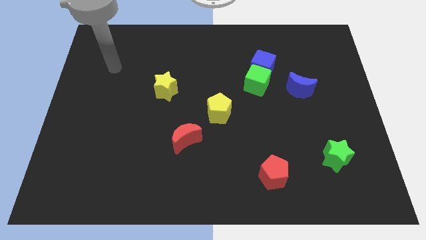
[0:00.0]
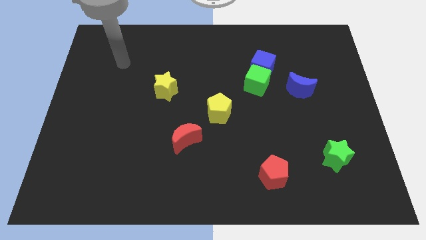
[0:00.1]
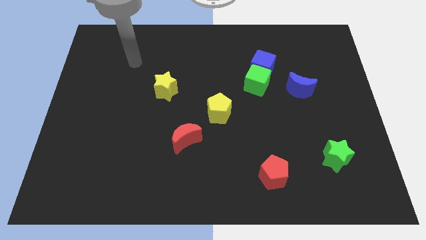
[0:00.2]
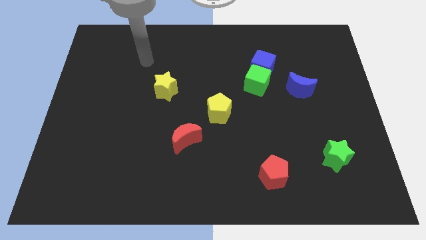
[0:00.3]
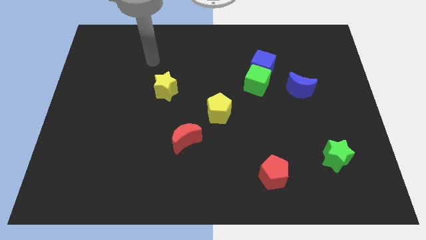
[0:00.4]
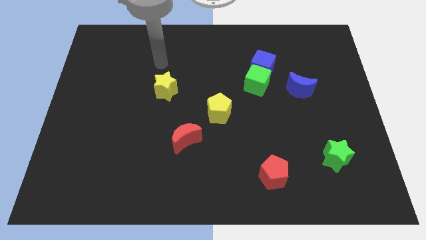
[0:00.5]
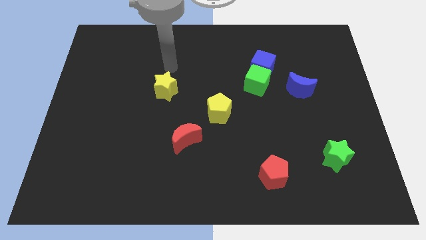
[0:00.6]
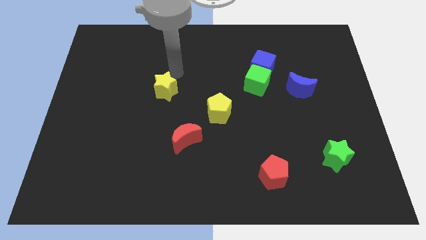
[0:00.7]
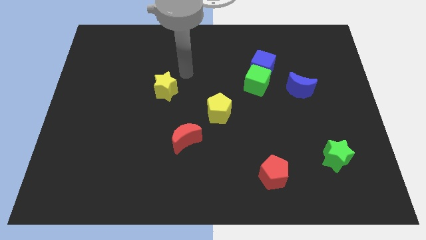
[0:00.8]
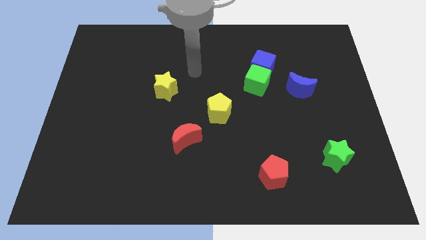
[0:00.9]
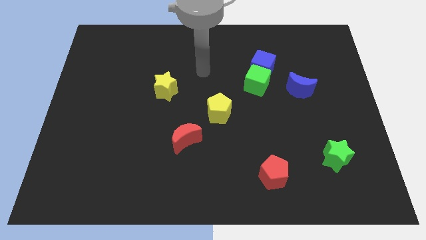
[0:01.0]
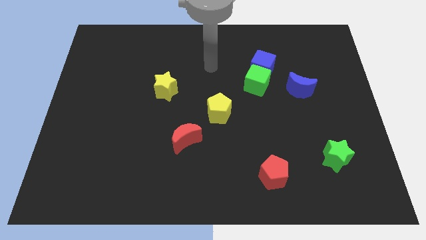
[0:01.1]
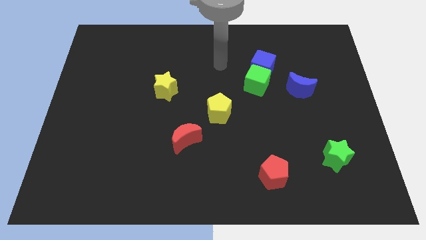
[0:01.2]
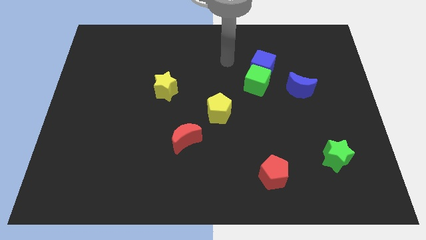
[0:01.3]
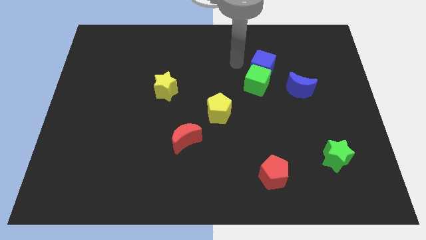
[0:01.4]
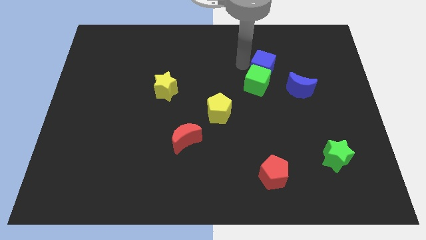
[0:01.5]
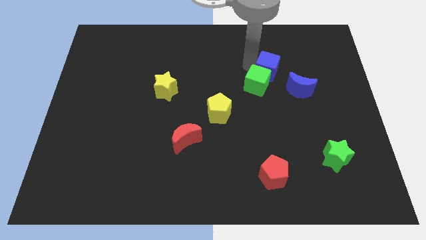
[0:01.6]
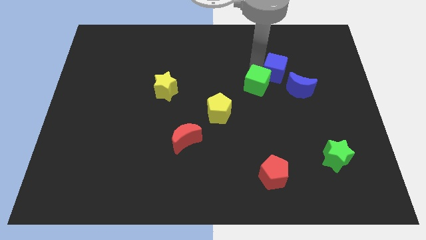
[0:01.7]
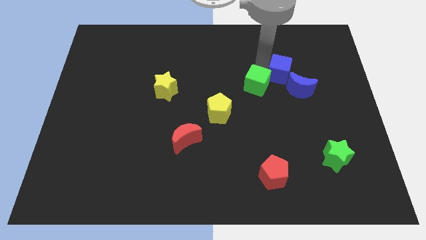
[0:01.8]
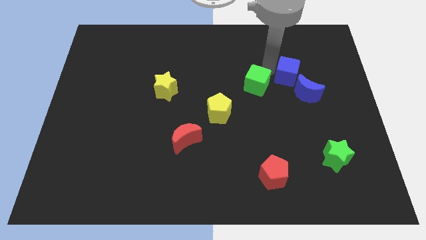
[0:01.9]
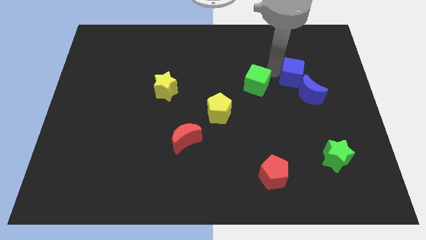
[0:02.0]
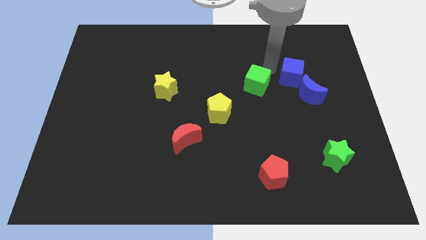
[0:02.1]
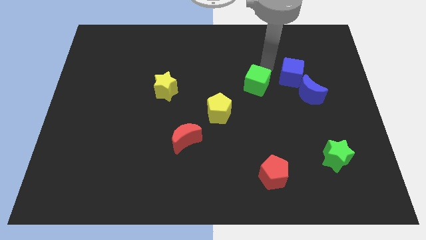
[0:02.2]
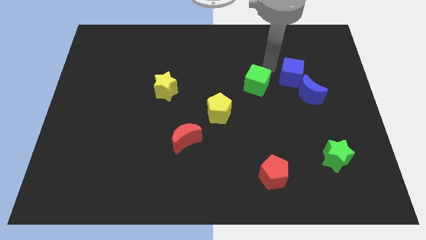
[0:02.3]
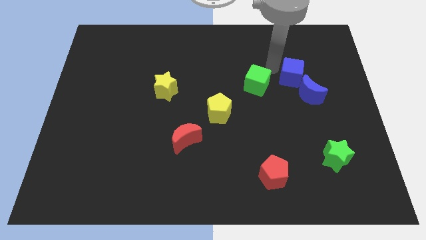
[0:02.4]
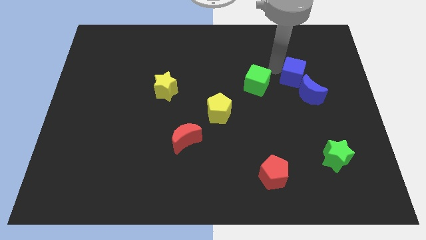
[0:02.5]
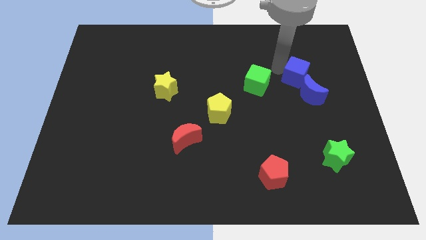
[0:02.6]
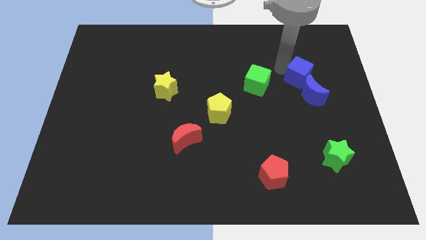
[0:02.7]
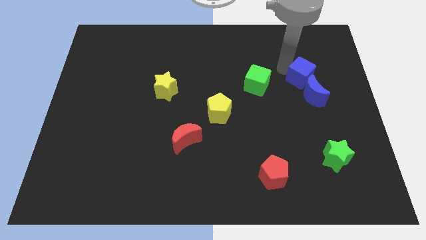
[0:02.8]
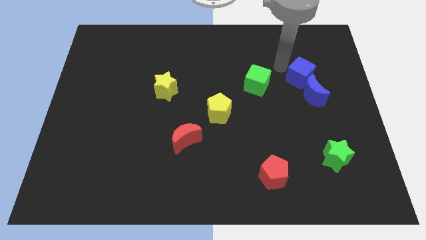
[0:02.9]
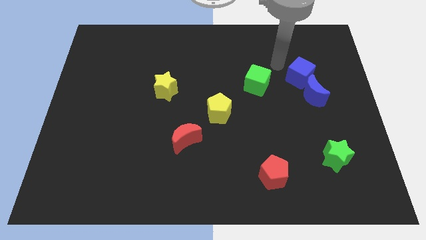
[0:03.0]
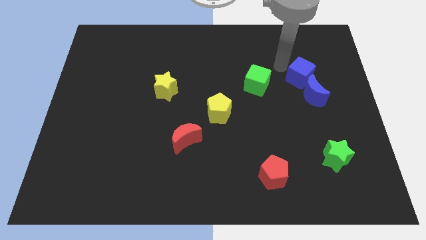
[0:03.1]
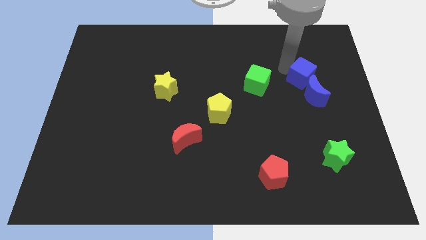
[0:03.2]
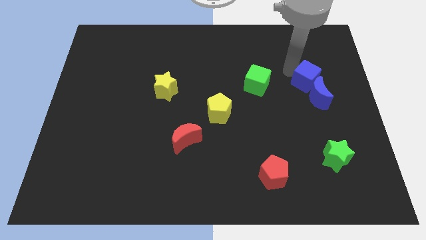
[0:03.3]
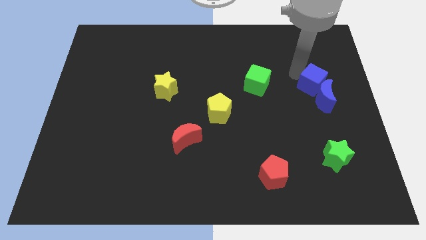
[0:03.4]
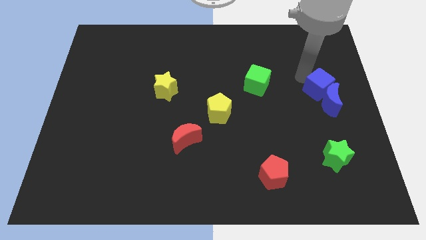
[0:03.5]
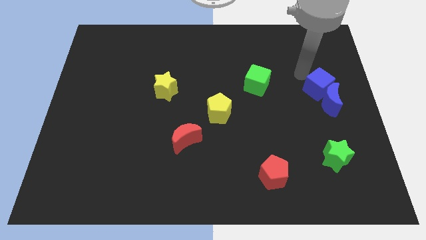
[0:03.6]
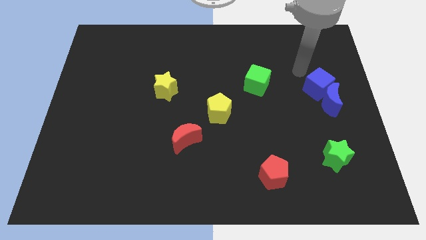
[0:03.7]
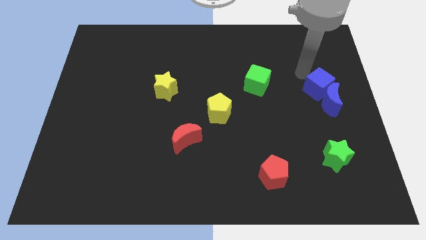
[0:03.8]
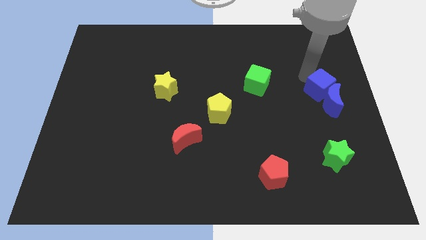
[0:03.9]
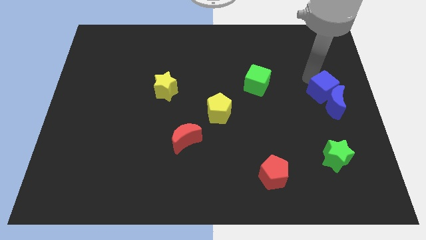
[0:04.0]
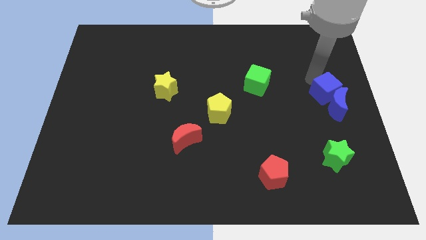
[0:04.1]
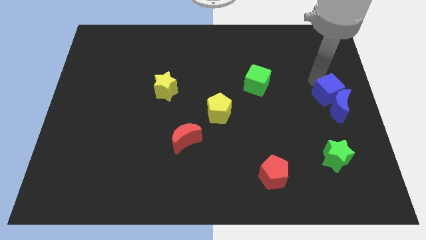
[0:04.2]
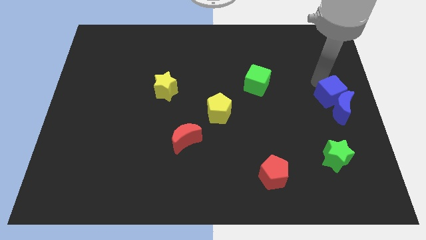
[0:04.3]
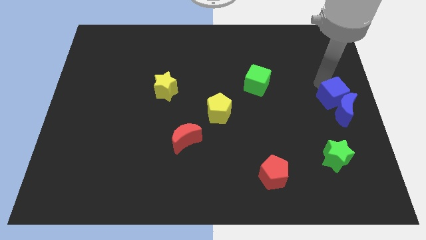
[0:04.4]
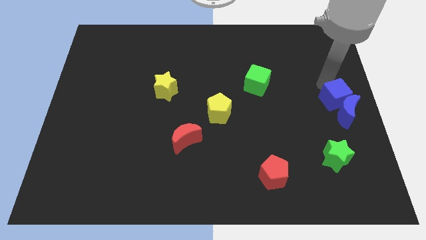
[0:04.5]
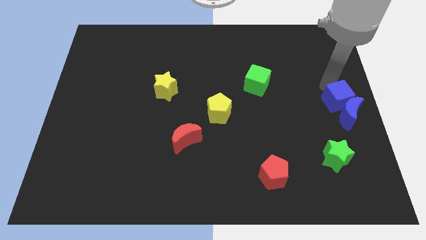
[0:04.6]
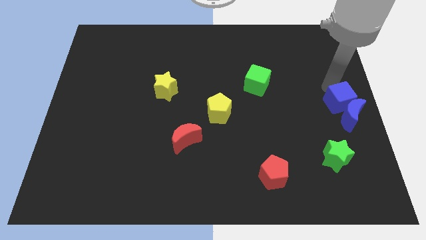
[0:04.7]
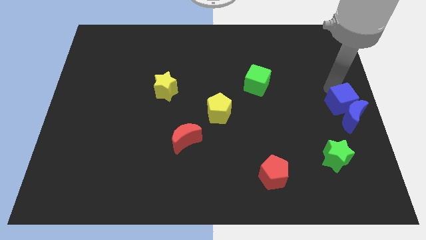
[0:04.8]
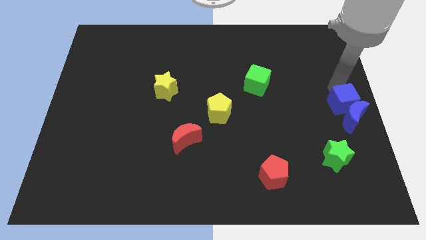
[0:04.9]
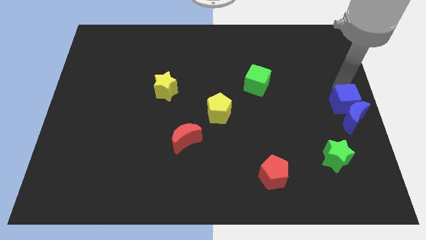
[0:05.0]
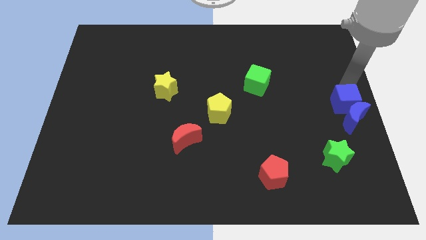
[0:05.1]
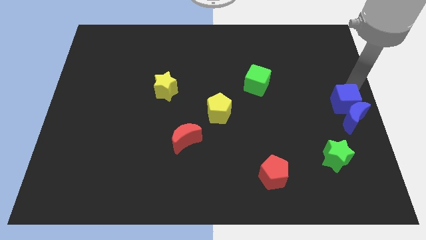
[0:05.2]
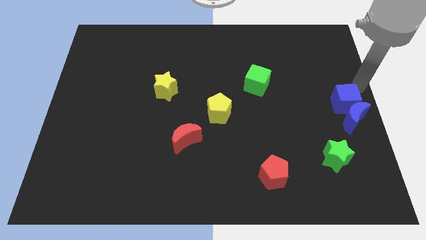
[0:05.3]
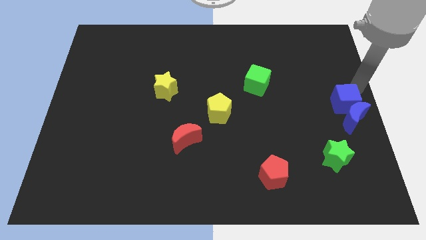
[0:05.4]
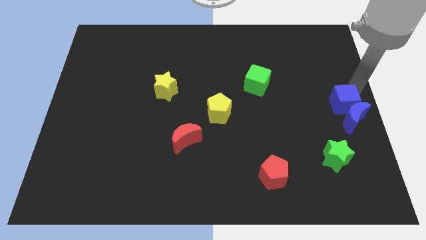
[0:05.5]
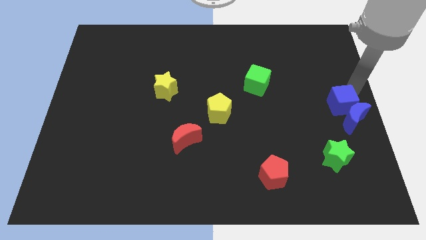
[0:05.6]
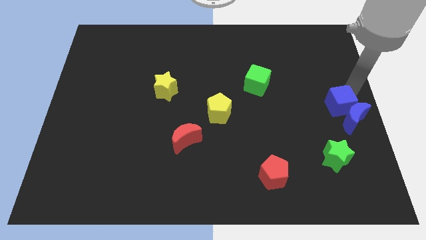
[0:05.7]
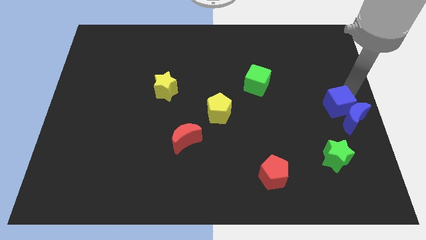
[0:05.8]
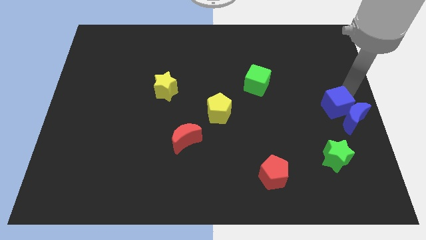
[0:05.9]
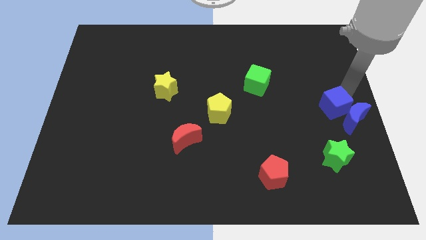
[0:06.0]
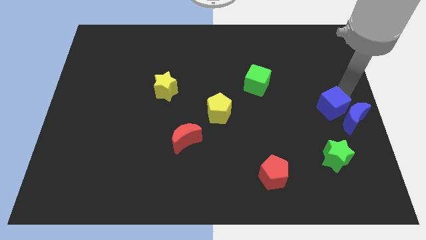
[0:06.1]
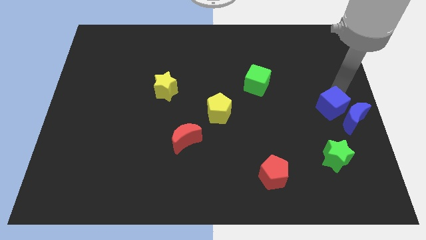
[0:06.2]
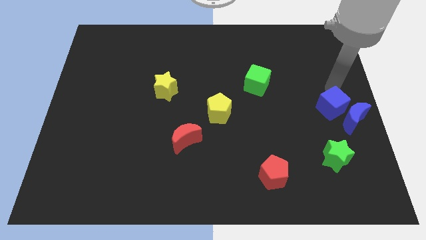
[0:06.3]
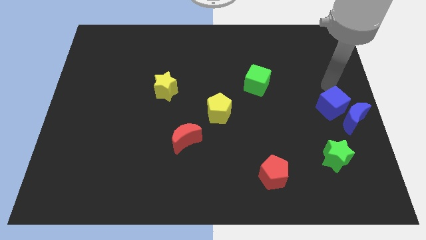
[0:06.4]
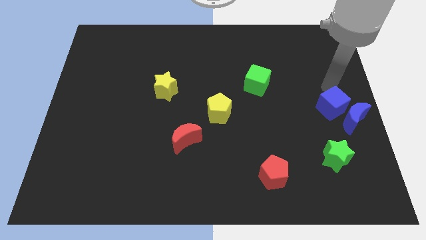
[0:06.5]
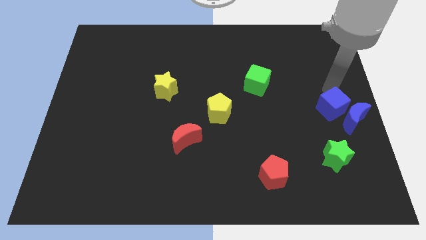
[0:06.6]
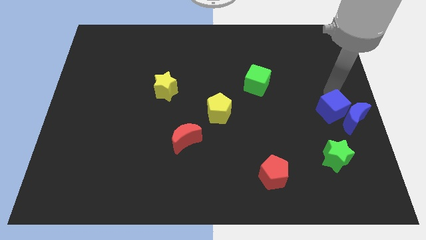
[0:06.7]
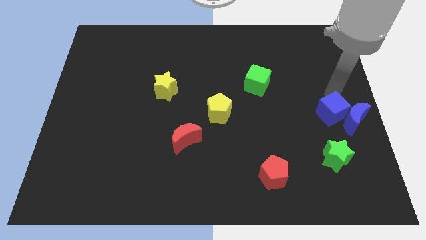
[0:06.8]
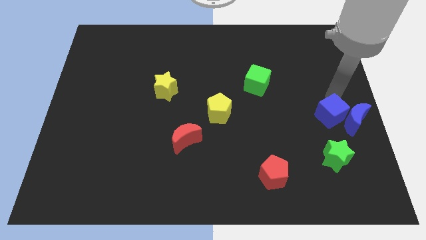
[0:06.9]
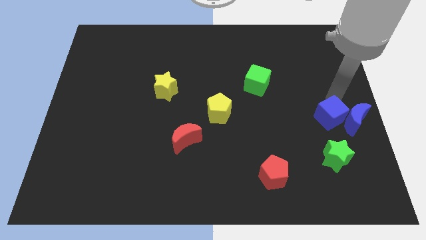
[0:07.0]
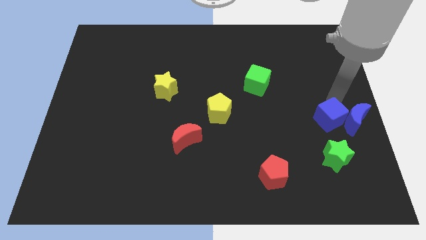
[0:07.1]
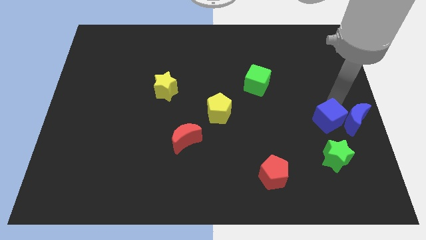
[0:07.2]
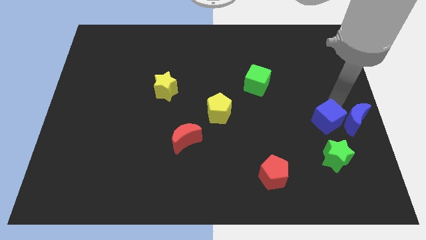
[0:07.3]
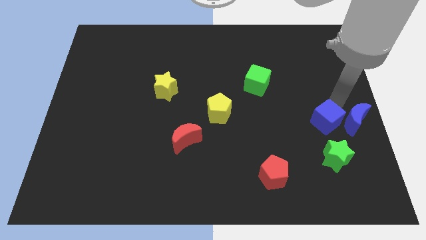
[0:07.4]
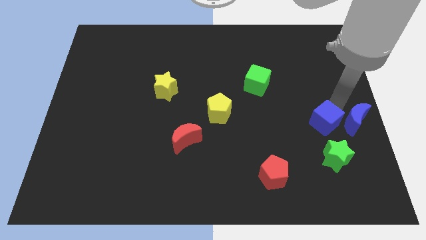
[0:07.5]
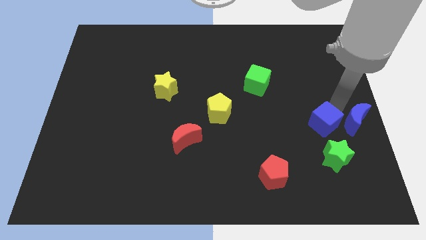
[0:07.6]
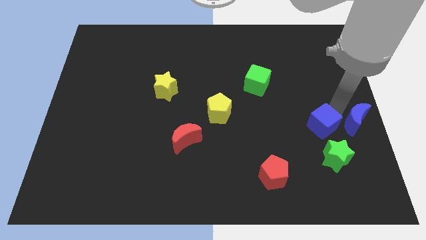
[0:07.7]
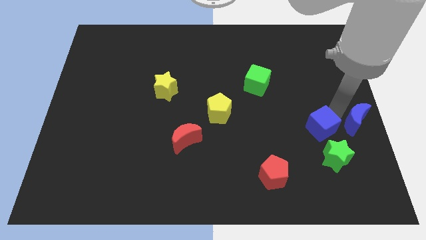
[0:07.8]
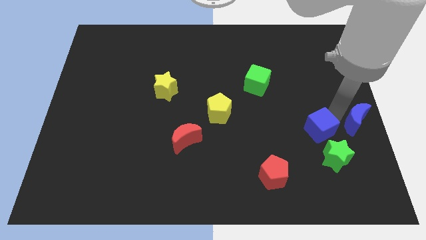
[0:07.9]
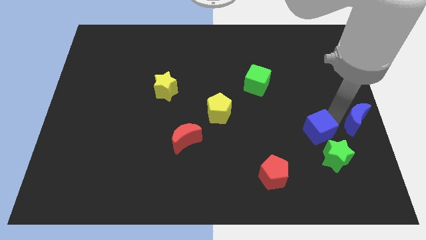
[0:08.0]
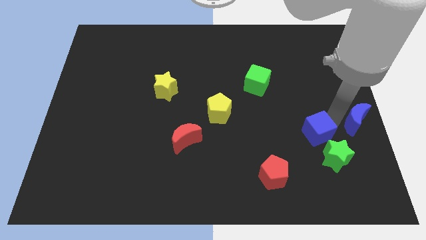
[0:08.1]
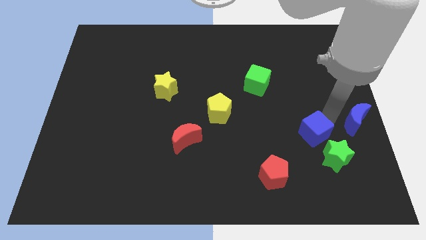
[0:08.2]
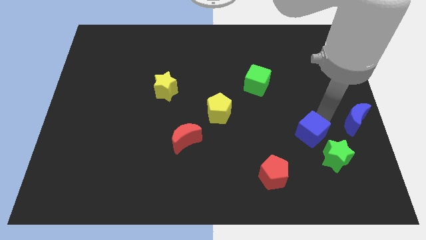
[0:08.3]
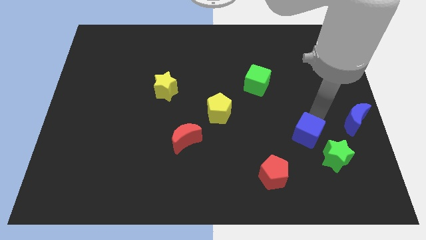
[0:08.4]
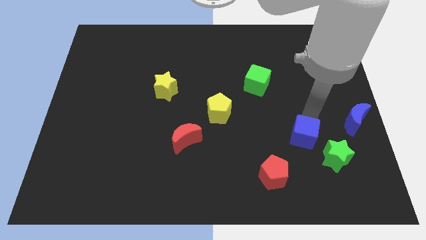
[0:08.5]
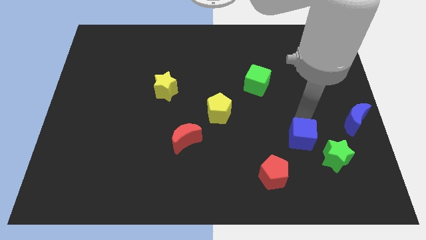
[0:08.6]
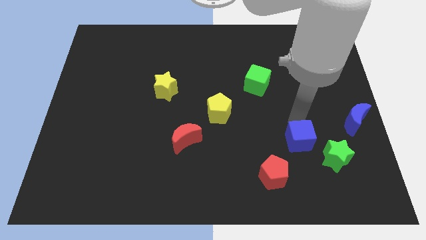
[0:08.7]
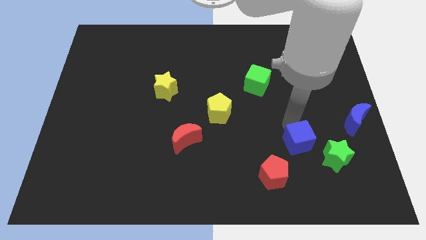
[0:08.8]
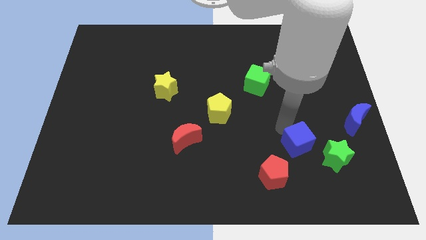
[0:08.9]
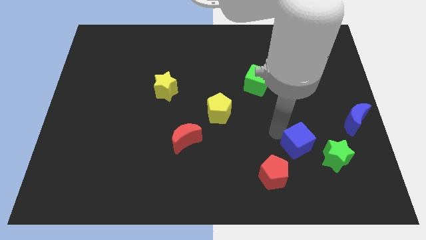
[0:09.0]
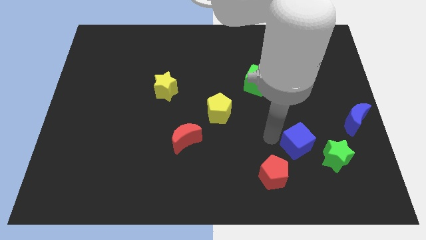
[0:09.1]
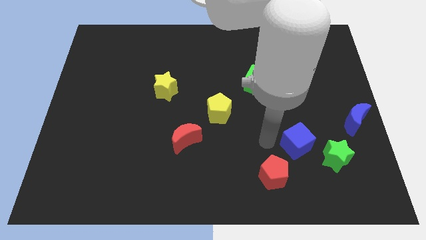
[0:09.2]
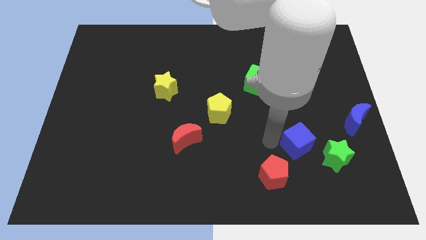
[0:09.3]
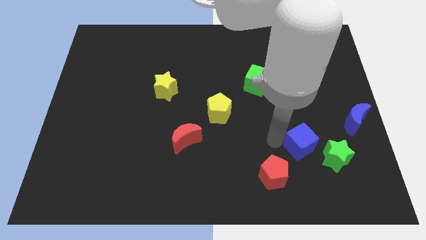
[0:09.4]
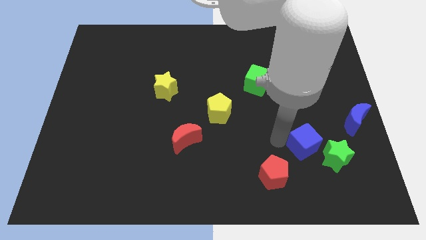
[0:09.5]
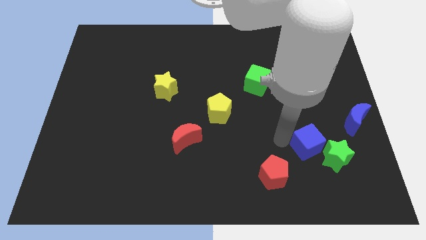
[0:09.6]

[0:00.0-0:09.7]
move the blue cube next to the green star
